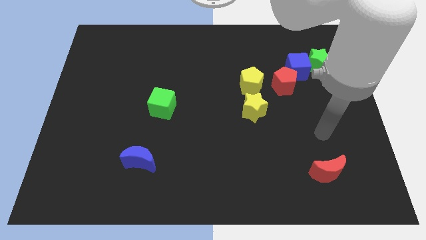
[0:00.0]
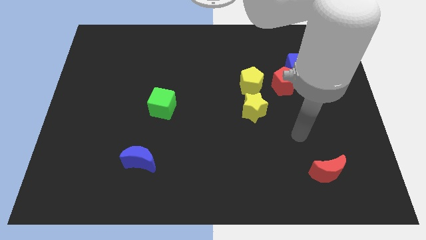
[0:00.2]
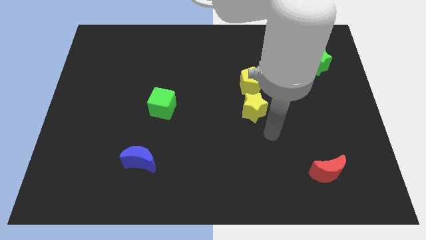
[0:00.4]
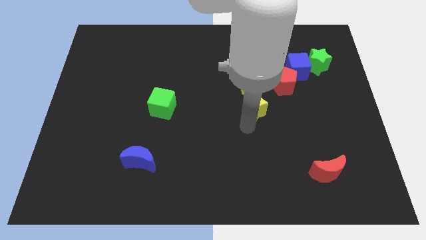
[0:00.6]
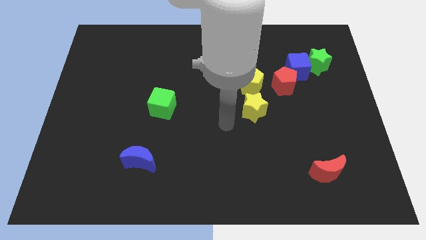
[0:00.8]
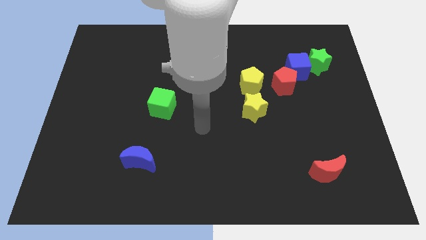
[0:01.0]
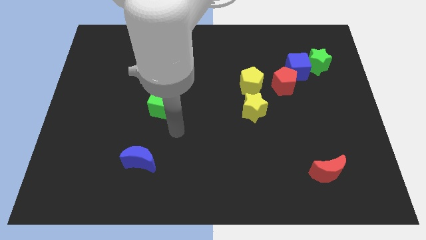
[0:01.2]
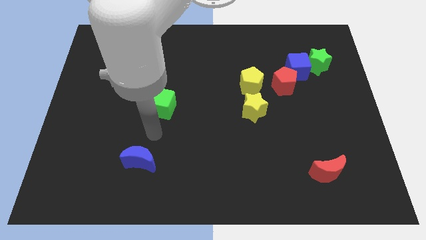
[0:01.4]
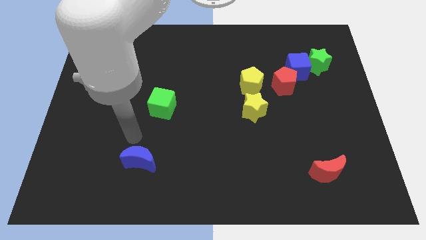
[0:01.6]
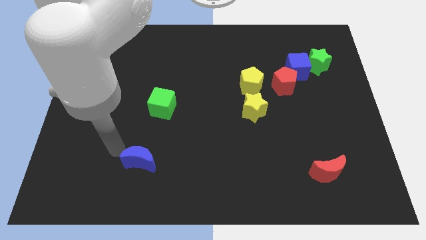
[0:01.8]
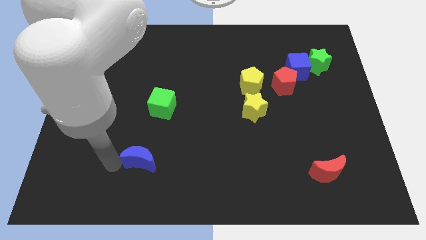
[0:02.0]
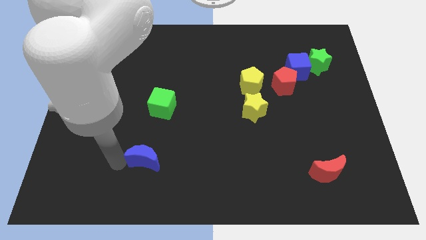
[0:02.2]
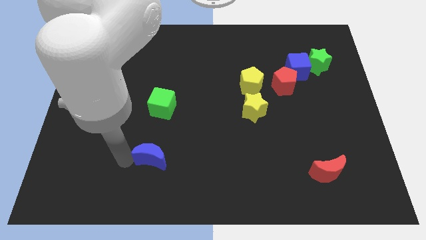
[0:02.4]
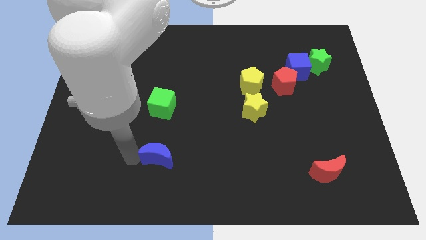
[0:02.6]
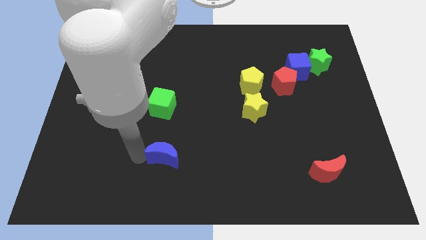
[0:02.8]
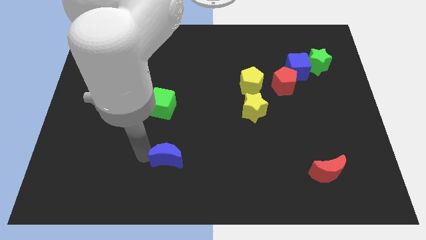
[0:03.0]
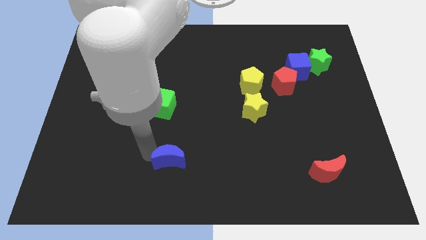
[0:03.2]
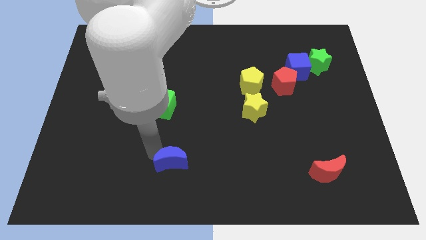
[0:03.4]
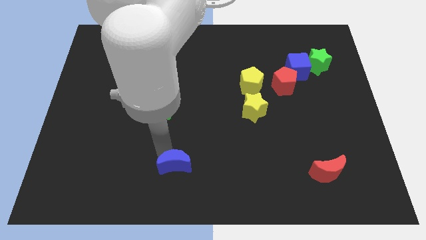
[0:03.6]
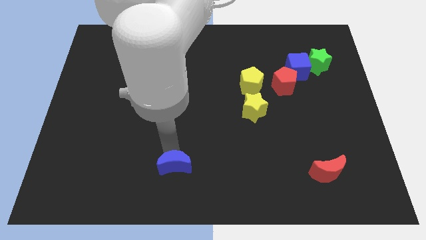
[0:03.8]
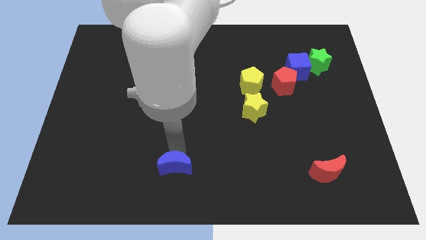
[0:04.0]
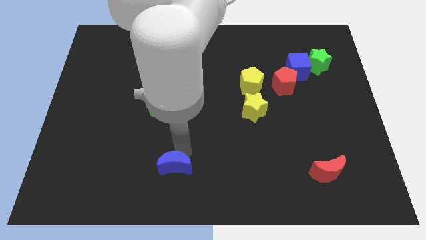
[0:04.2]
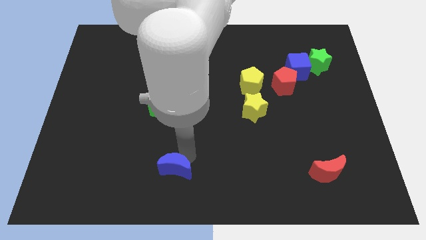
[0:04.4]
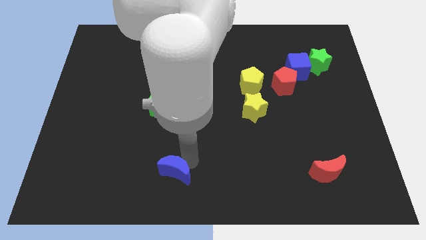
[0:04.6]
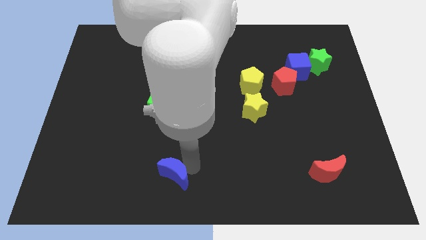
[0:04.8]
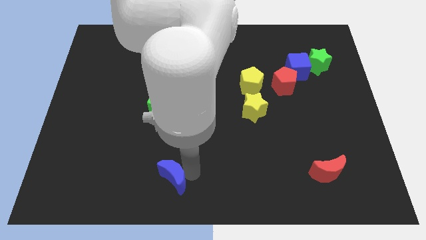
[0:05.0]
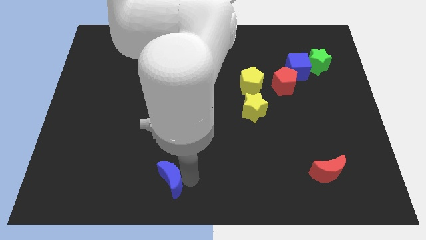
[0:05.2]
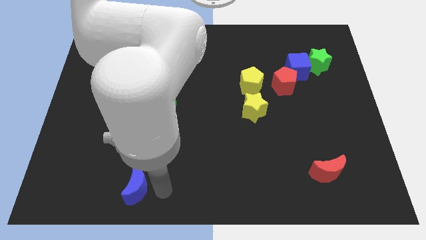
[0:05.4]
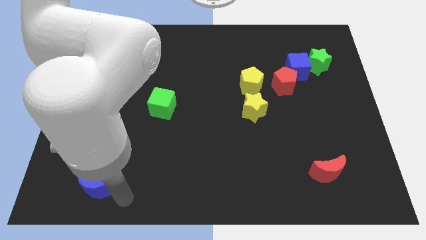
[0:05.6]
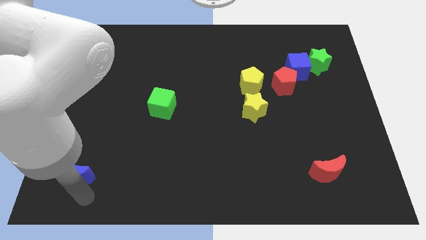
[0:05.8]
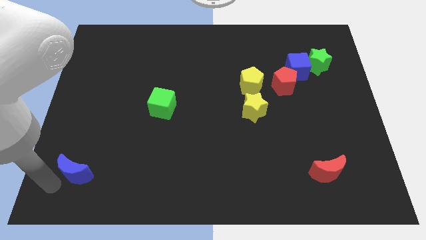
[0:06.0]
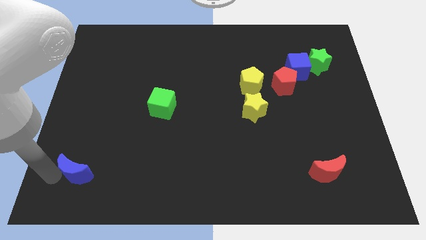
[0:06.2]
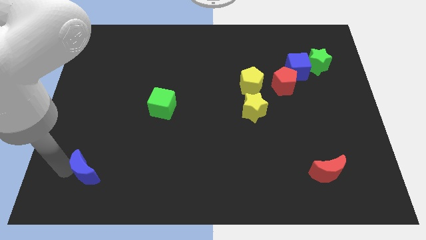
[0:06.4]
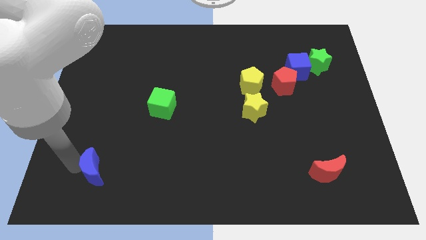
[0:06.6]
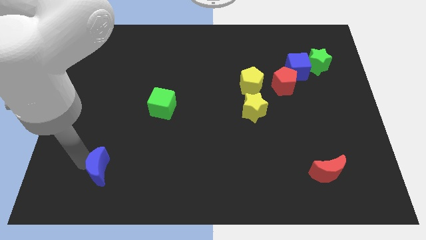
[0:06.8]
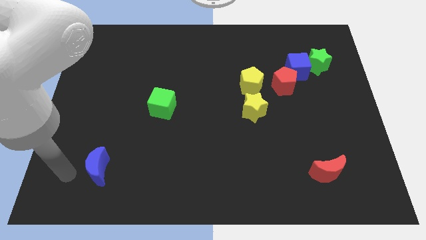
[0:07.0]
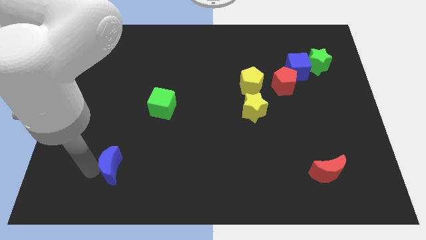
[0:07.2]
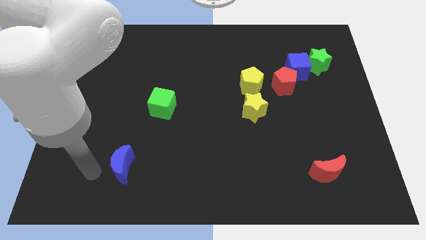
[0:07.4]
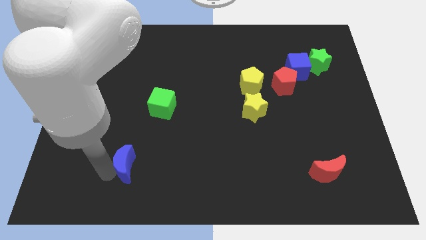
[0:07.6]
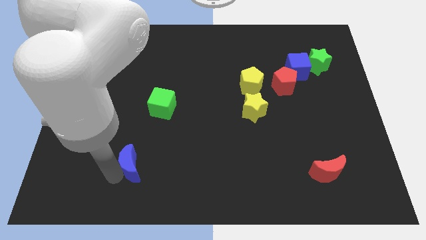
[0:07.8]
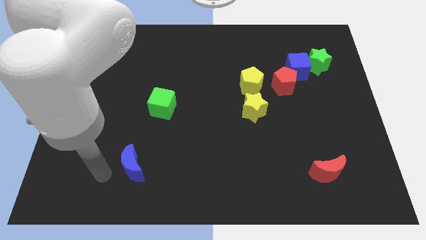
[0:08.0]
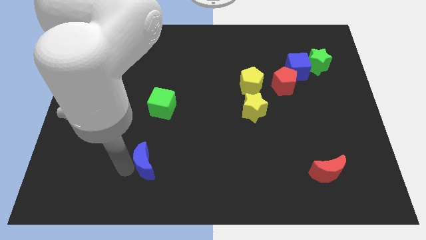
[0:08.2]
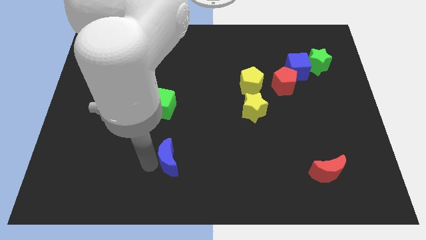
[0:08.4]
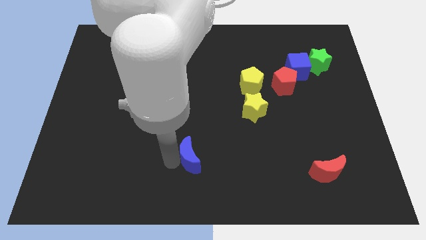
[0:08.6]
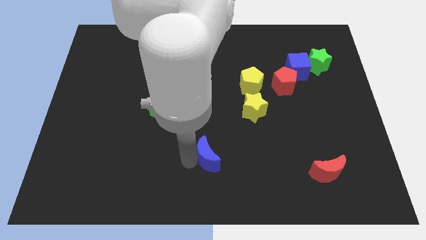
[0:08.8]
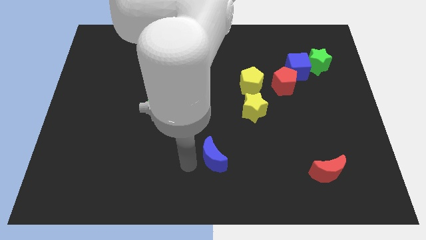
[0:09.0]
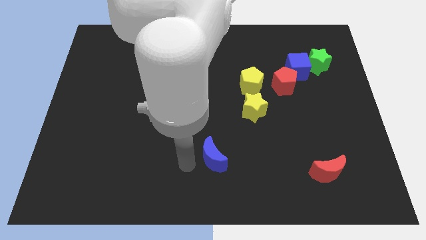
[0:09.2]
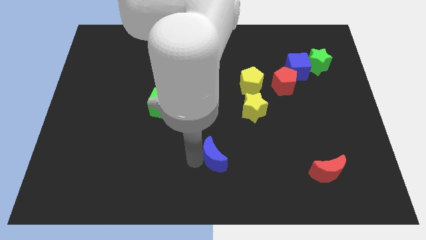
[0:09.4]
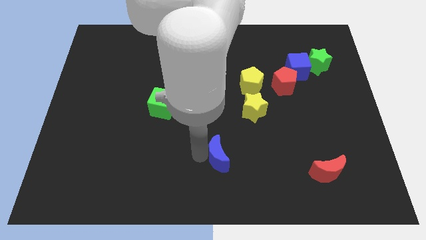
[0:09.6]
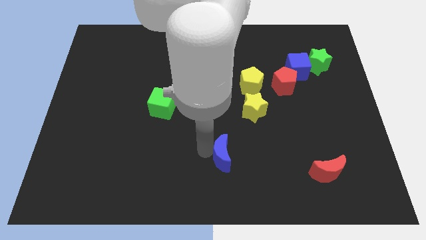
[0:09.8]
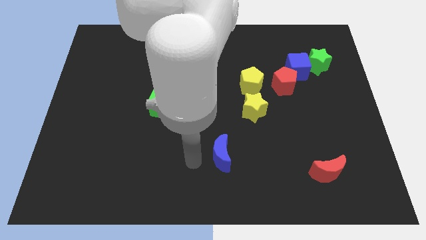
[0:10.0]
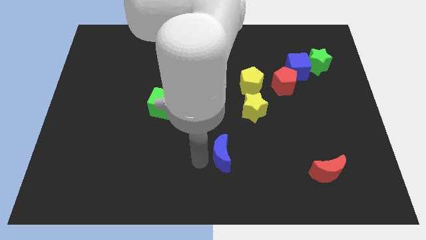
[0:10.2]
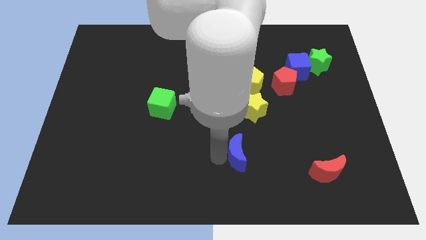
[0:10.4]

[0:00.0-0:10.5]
put the blue moon to the bottom of the yellow star

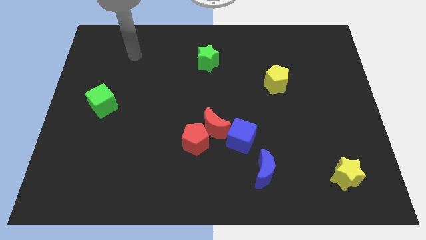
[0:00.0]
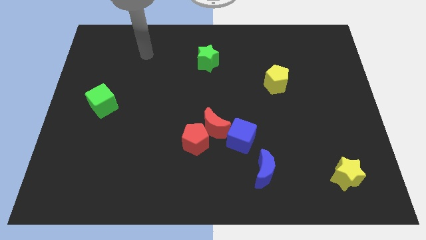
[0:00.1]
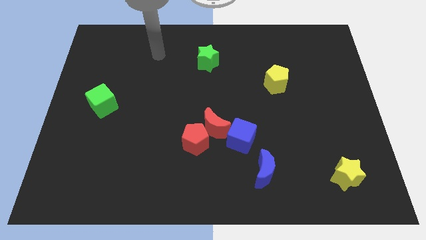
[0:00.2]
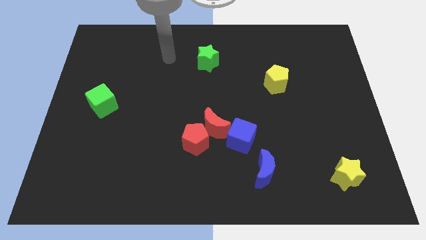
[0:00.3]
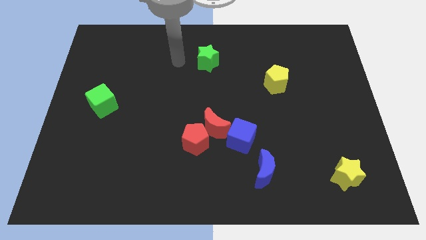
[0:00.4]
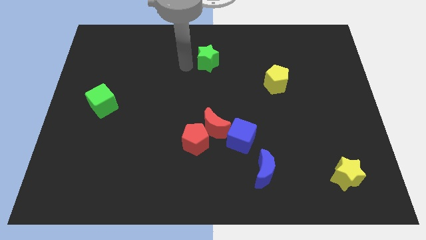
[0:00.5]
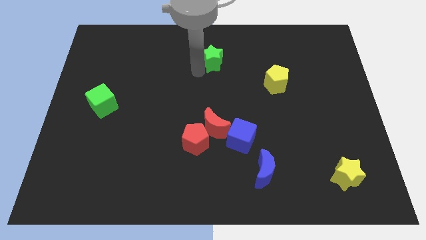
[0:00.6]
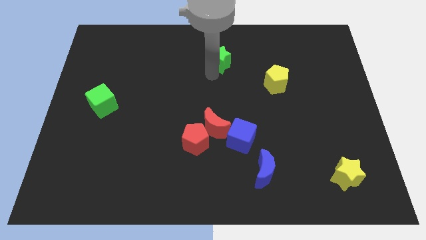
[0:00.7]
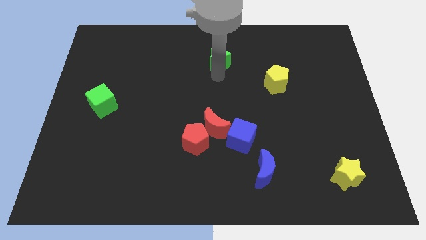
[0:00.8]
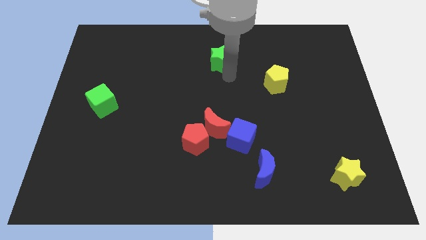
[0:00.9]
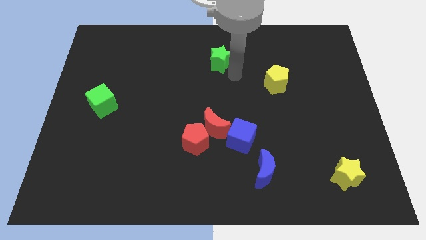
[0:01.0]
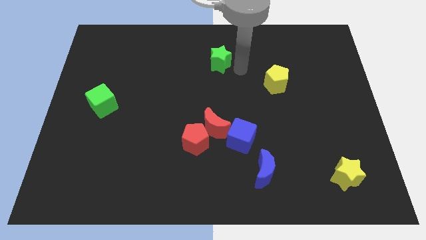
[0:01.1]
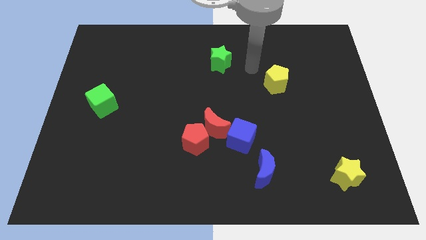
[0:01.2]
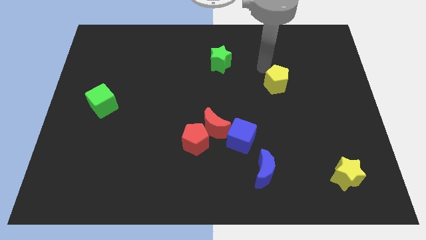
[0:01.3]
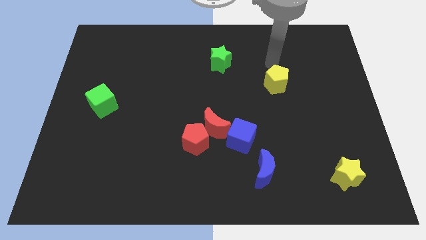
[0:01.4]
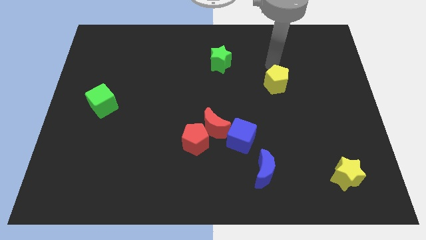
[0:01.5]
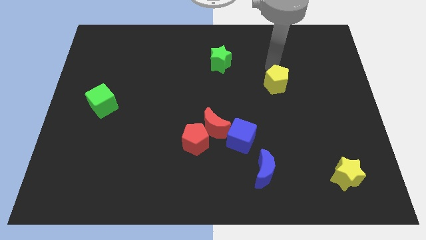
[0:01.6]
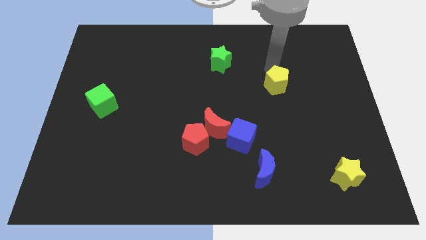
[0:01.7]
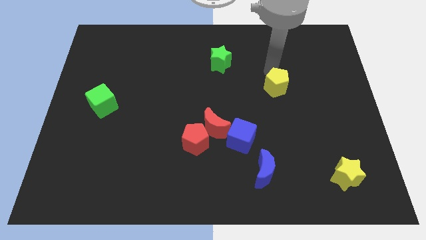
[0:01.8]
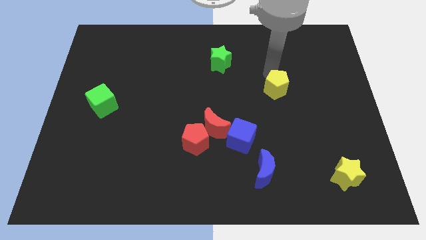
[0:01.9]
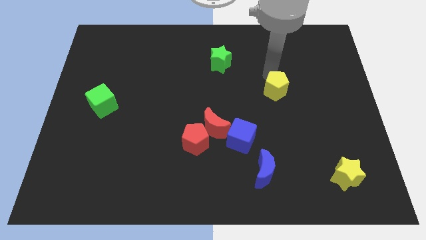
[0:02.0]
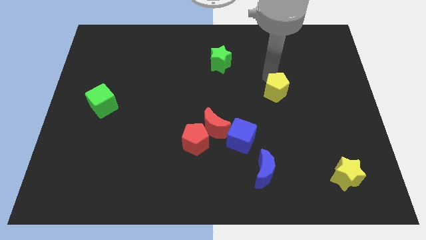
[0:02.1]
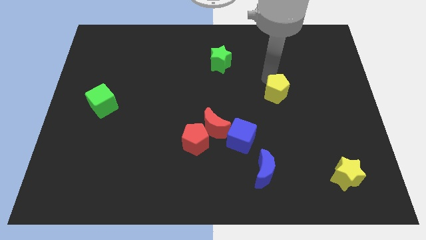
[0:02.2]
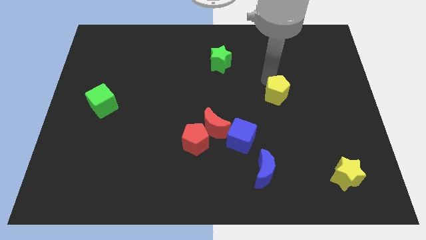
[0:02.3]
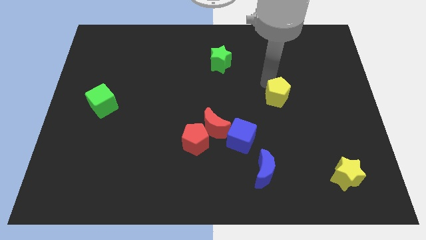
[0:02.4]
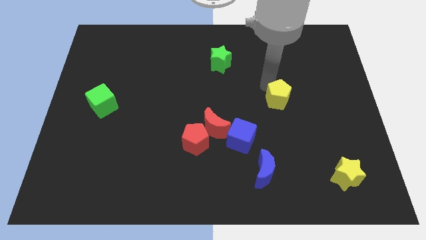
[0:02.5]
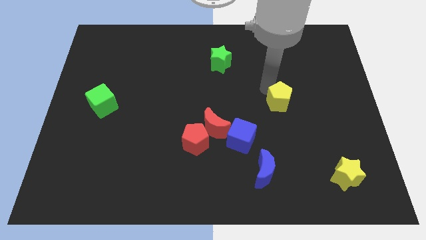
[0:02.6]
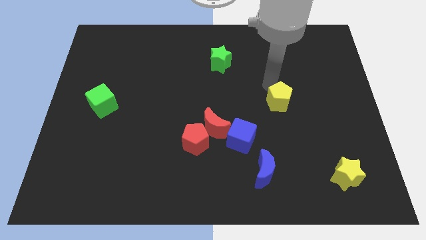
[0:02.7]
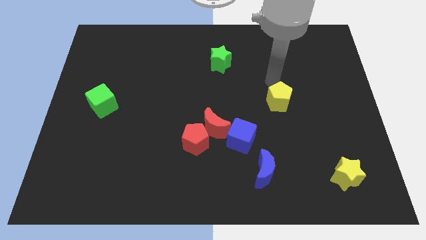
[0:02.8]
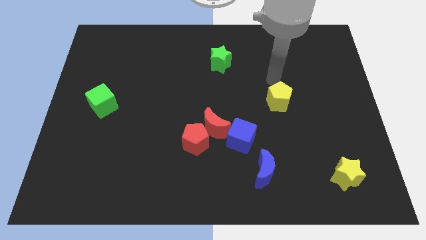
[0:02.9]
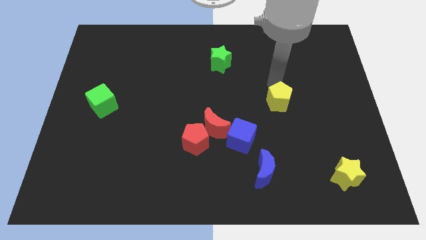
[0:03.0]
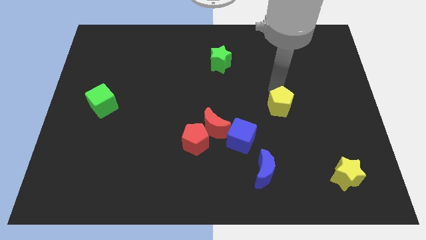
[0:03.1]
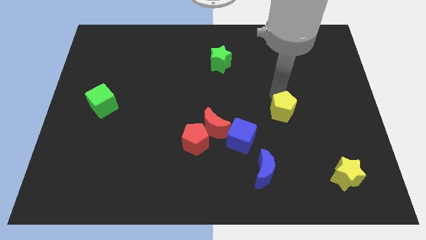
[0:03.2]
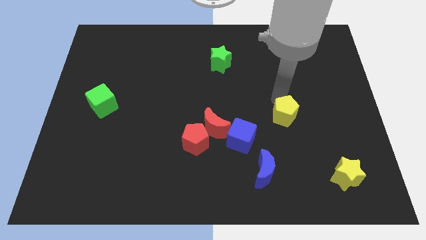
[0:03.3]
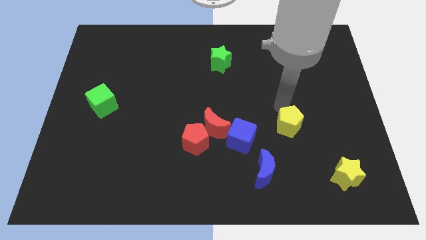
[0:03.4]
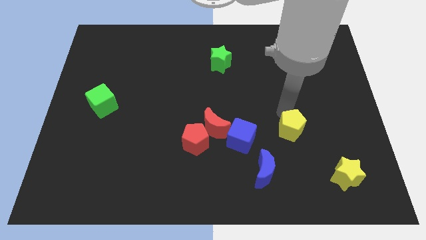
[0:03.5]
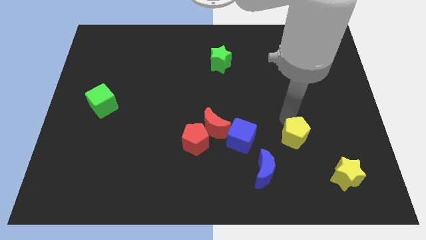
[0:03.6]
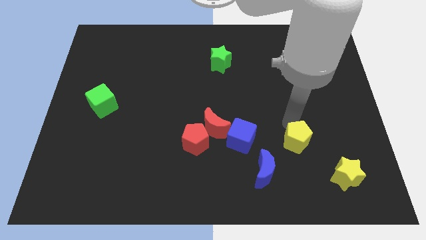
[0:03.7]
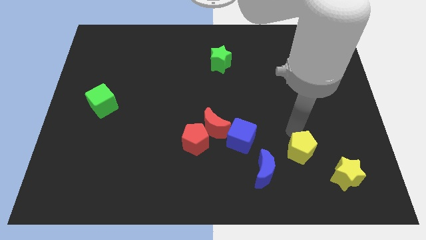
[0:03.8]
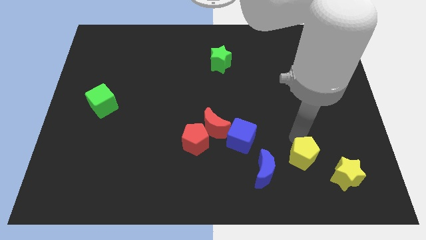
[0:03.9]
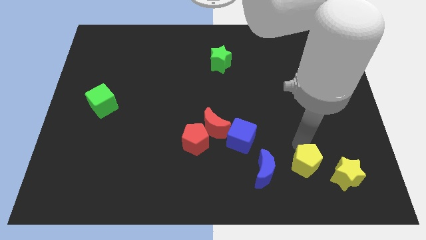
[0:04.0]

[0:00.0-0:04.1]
move the yellow pentagon just left of the yellow star
